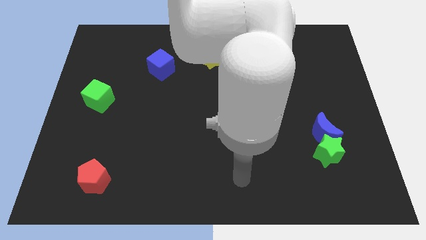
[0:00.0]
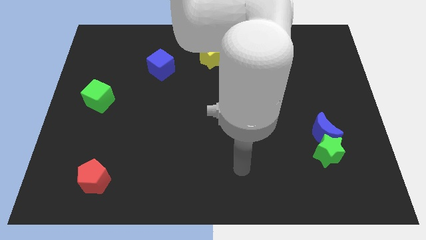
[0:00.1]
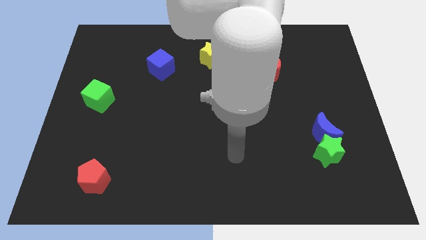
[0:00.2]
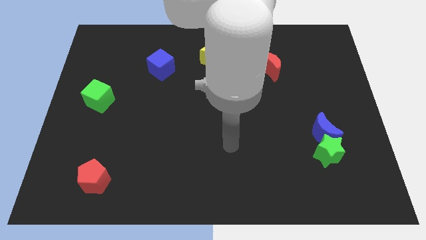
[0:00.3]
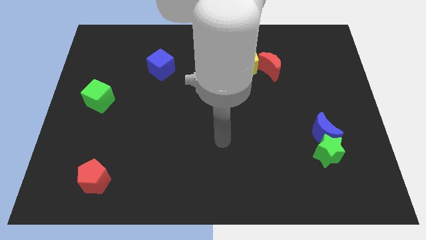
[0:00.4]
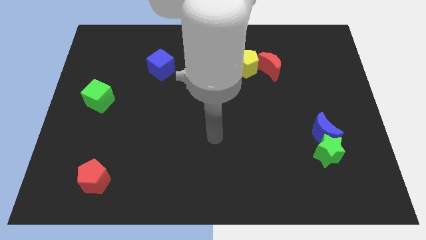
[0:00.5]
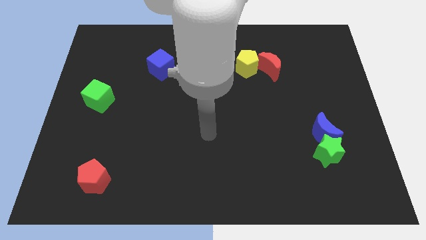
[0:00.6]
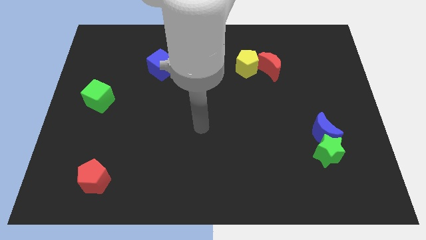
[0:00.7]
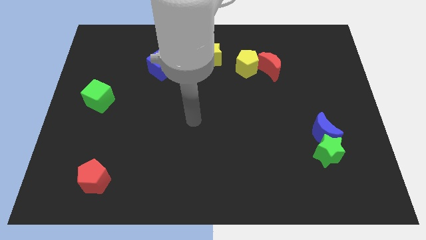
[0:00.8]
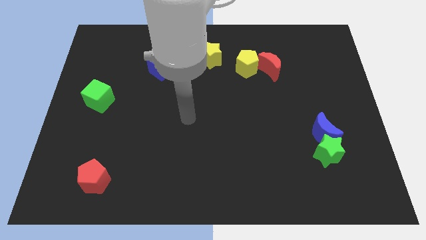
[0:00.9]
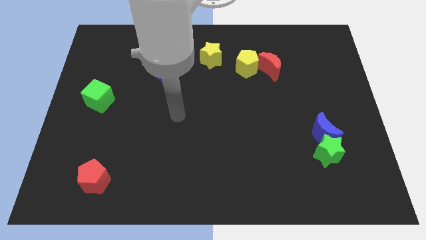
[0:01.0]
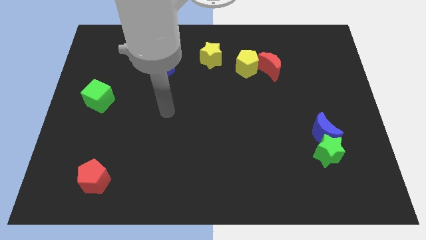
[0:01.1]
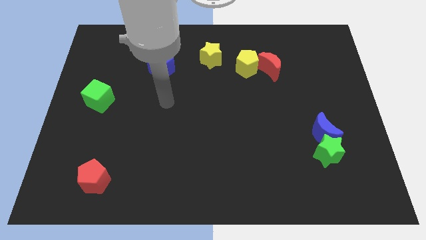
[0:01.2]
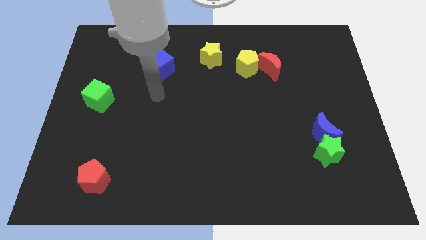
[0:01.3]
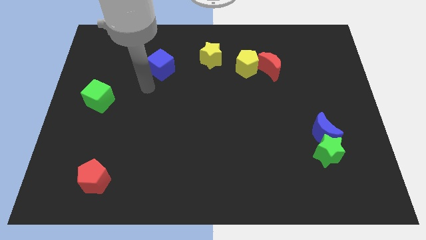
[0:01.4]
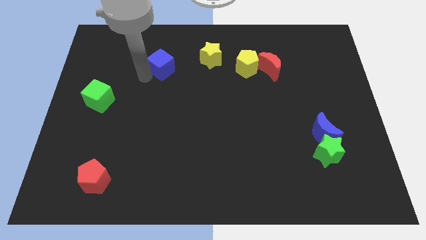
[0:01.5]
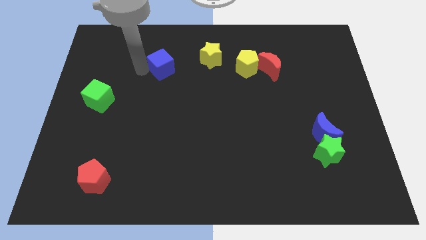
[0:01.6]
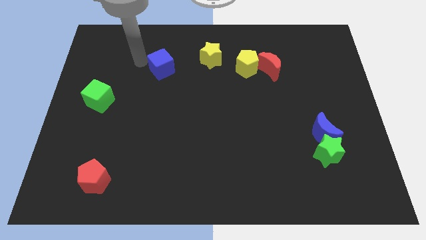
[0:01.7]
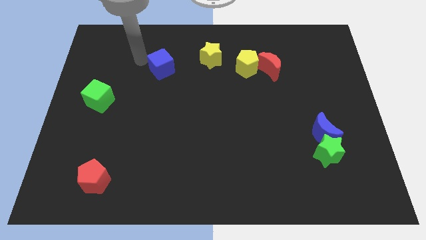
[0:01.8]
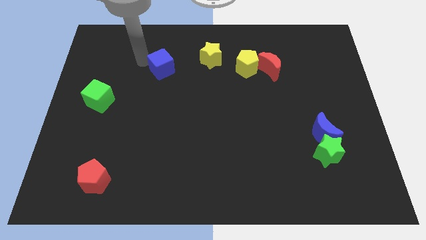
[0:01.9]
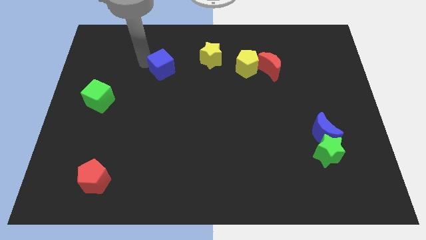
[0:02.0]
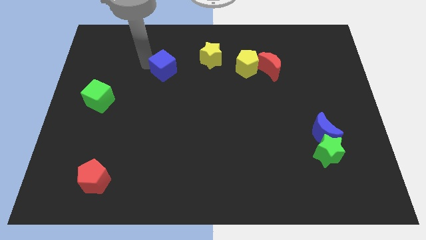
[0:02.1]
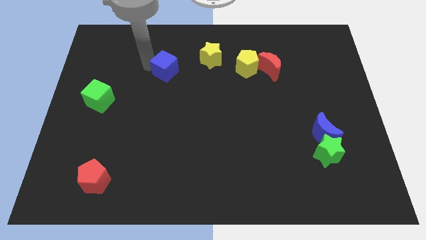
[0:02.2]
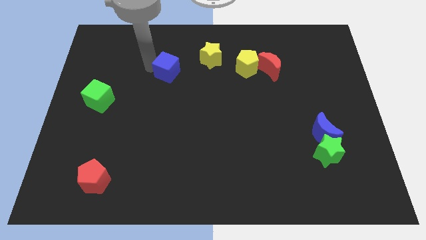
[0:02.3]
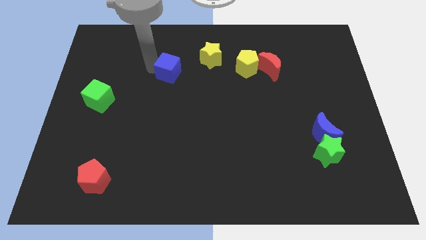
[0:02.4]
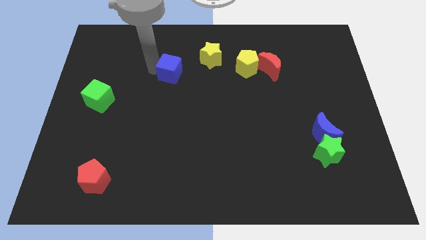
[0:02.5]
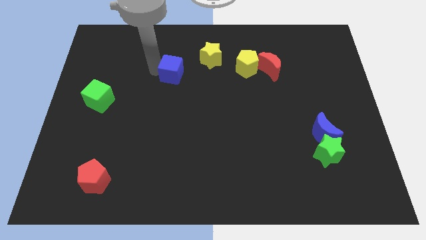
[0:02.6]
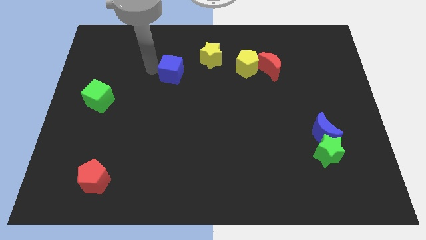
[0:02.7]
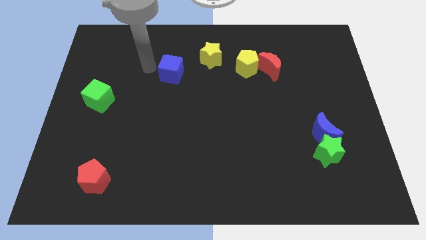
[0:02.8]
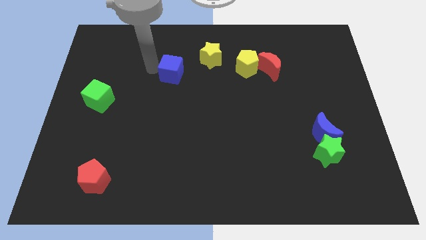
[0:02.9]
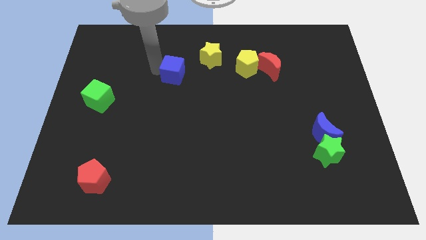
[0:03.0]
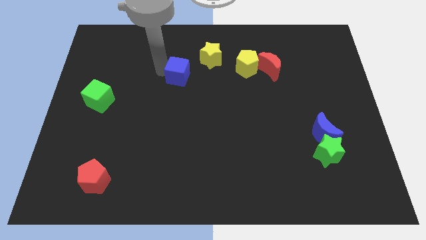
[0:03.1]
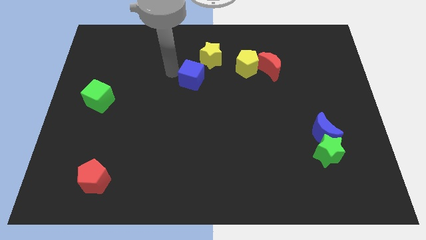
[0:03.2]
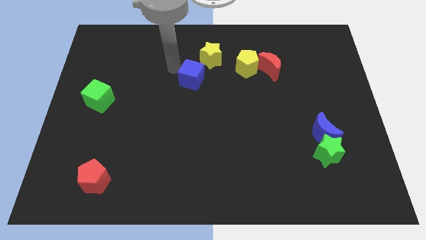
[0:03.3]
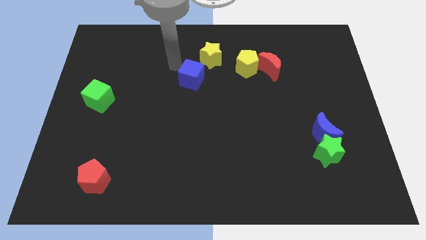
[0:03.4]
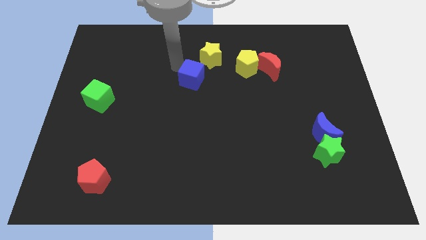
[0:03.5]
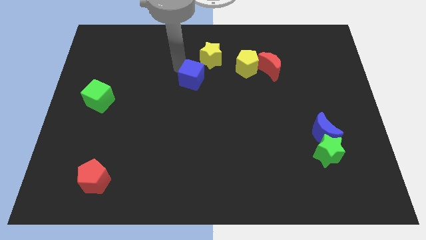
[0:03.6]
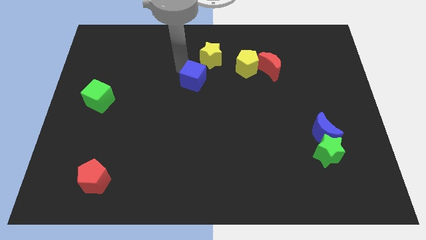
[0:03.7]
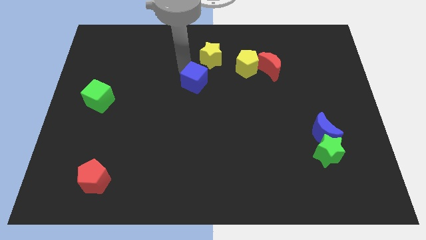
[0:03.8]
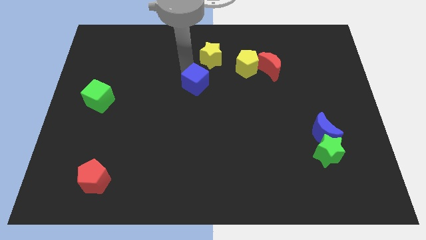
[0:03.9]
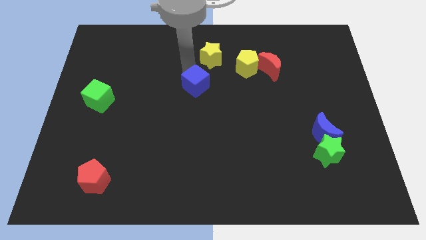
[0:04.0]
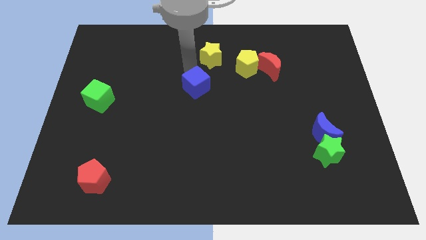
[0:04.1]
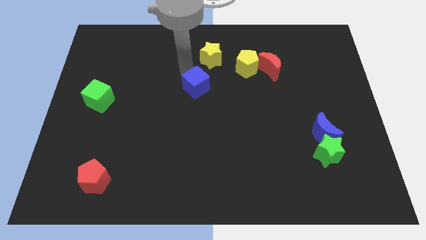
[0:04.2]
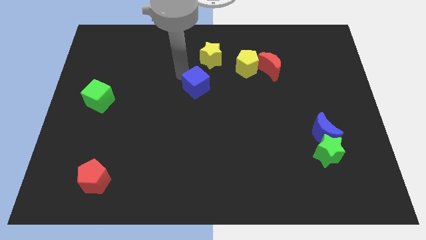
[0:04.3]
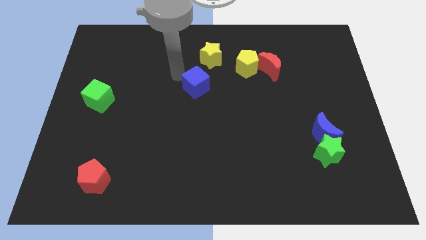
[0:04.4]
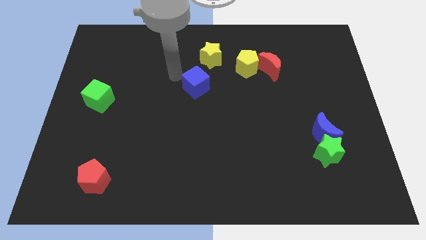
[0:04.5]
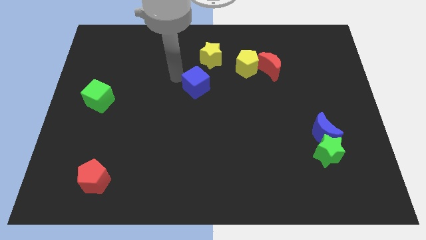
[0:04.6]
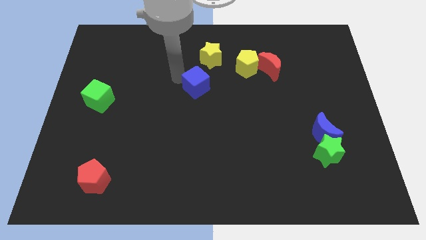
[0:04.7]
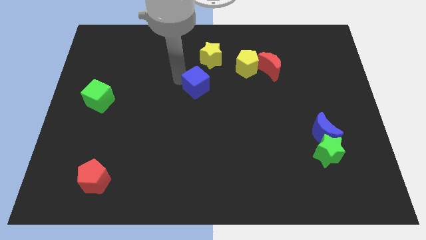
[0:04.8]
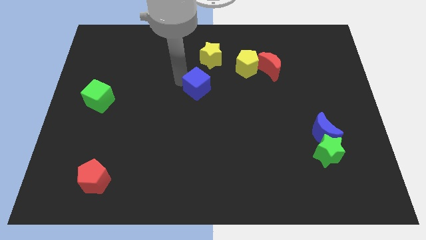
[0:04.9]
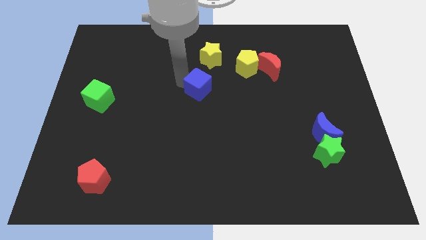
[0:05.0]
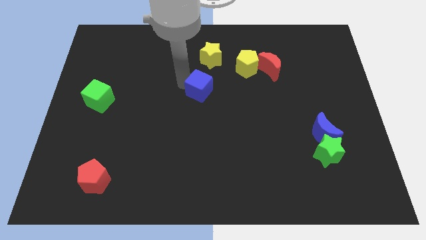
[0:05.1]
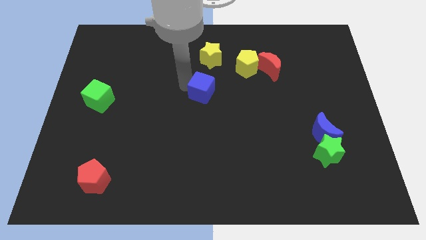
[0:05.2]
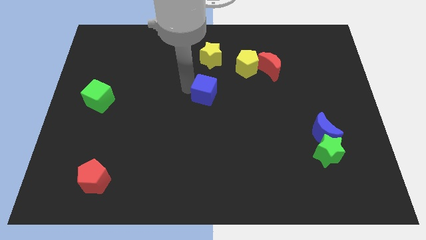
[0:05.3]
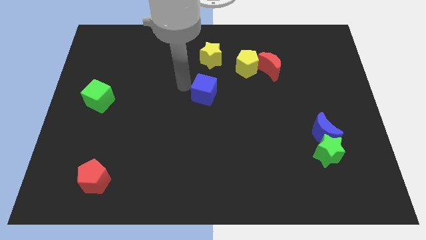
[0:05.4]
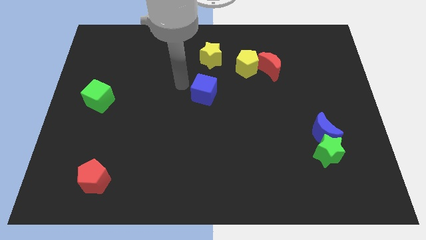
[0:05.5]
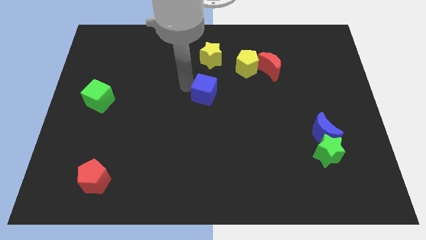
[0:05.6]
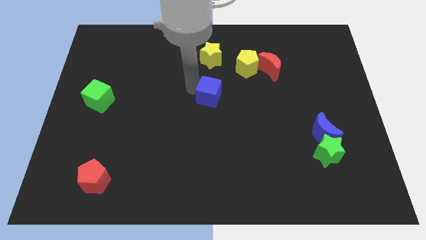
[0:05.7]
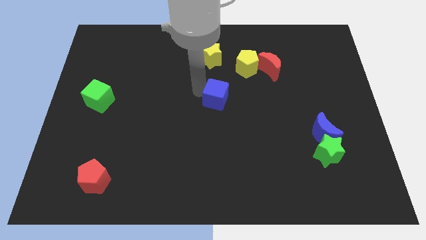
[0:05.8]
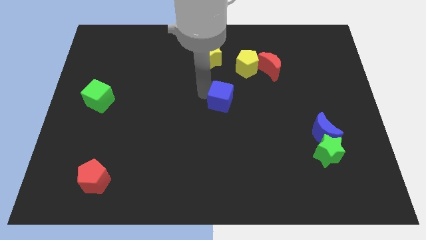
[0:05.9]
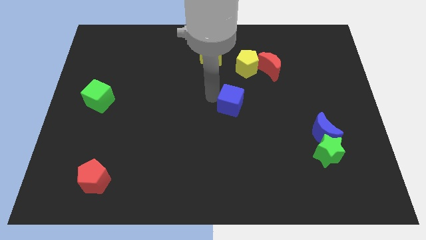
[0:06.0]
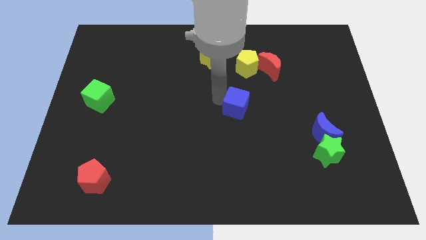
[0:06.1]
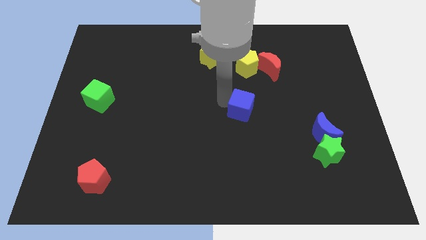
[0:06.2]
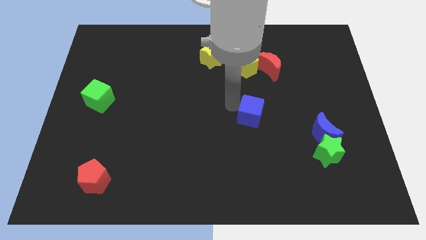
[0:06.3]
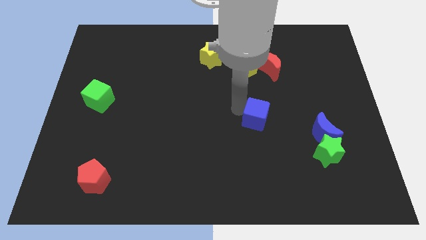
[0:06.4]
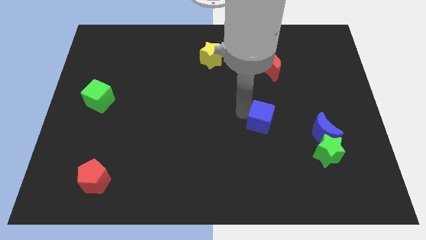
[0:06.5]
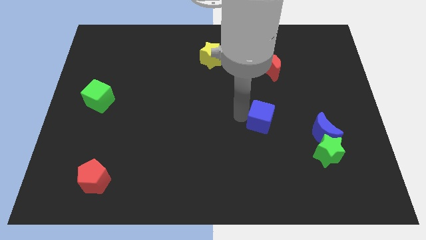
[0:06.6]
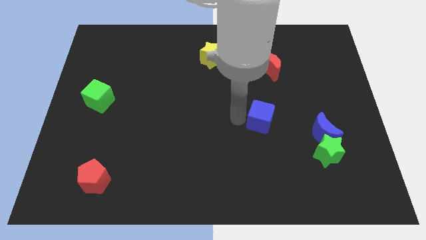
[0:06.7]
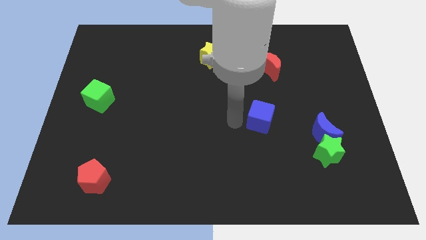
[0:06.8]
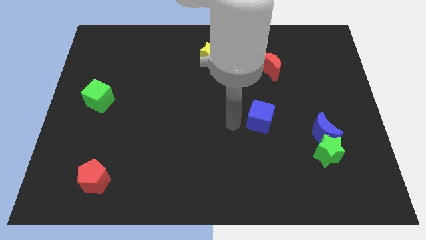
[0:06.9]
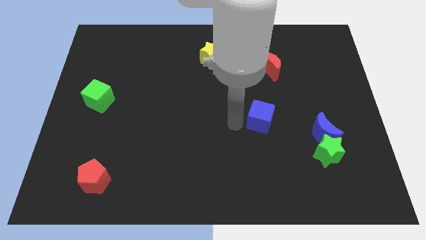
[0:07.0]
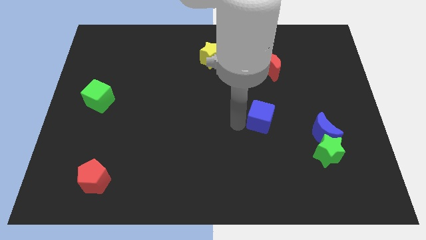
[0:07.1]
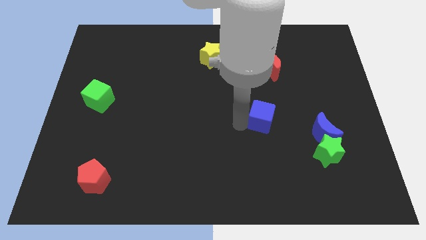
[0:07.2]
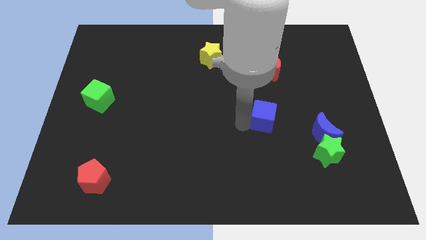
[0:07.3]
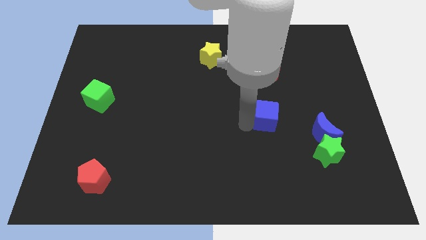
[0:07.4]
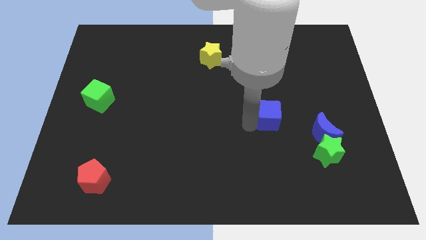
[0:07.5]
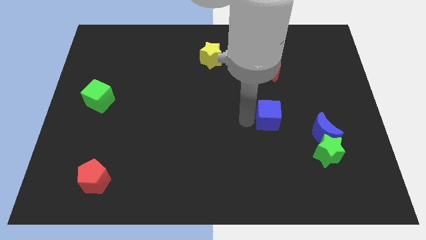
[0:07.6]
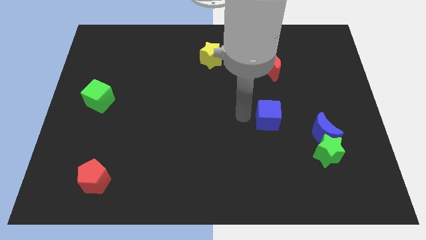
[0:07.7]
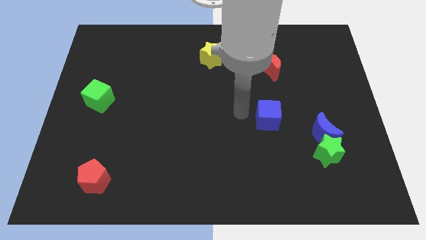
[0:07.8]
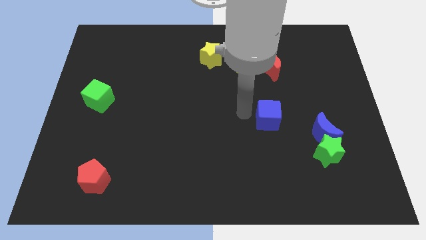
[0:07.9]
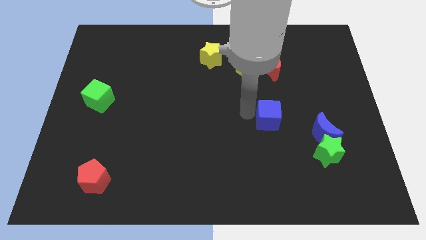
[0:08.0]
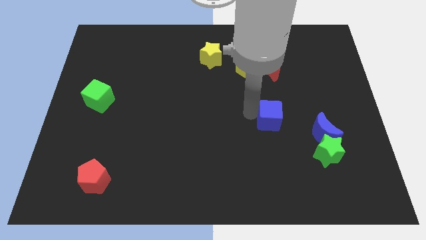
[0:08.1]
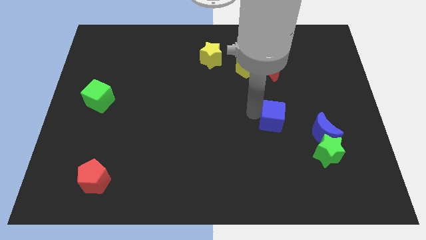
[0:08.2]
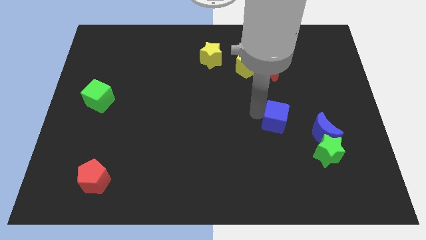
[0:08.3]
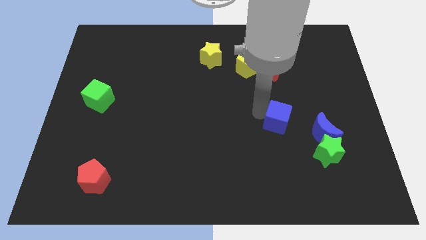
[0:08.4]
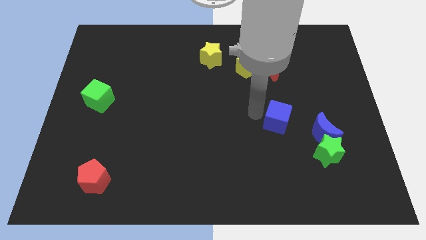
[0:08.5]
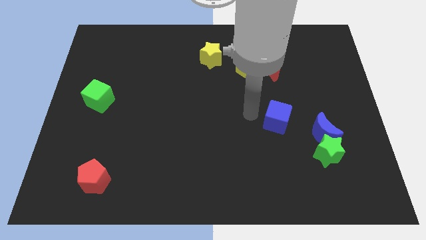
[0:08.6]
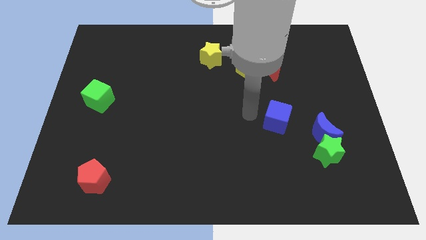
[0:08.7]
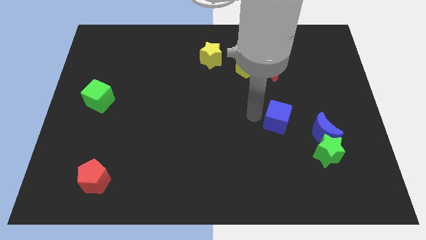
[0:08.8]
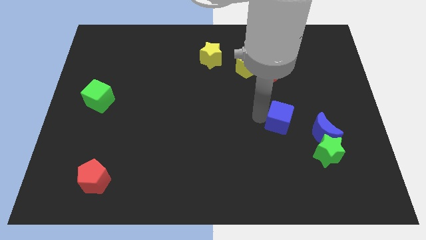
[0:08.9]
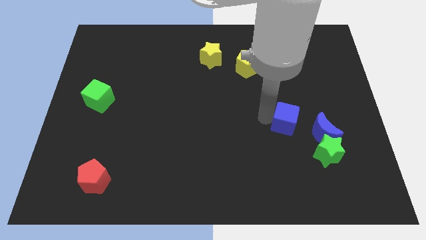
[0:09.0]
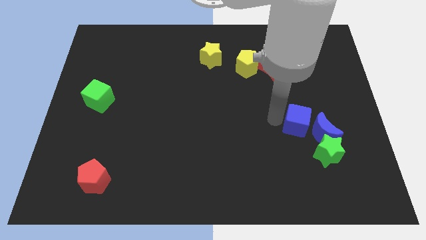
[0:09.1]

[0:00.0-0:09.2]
put the blue cube next to the blue moon
